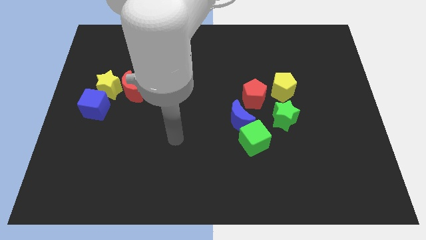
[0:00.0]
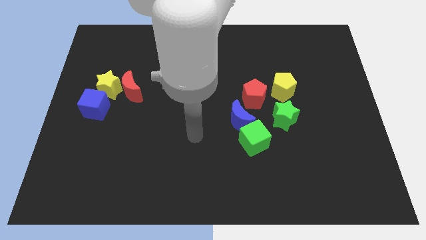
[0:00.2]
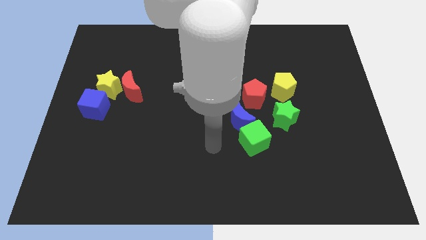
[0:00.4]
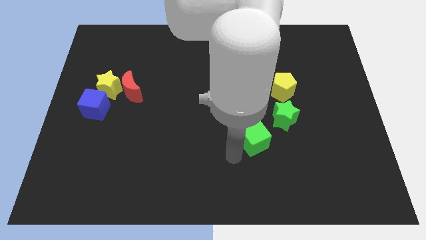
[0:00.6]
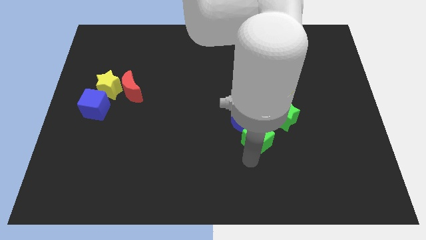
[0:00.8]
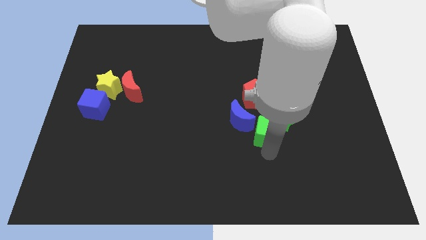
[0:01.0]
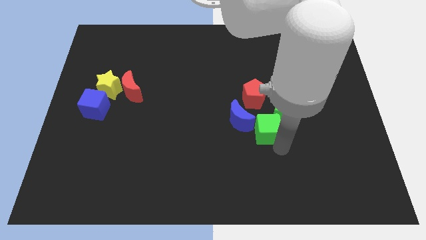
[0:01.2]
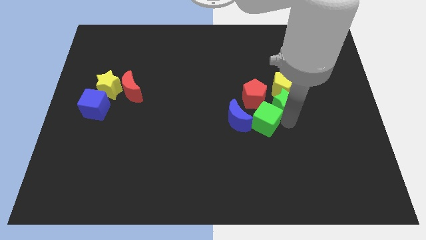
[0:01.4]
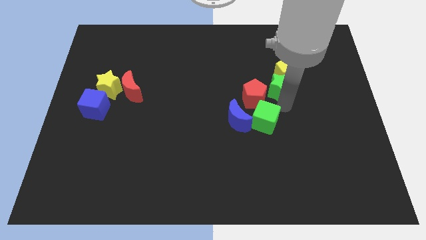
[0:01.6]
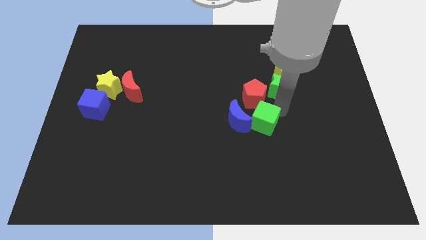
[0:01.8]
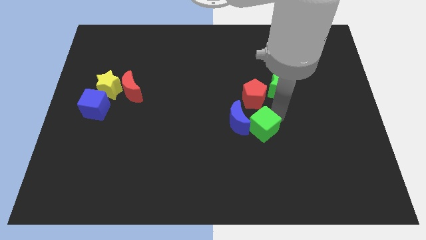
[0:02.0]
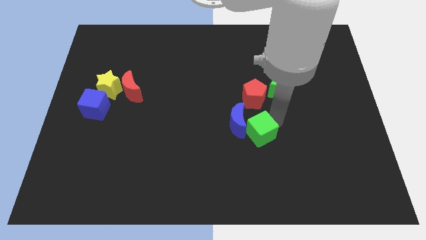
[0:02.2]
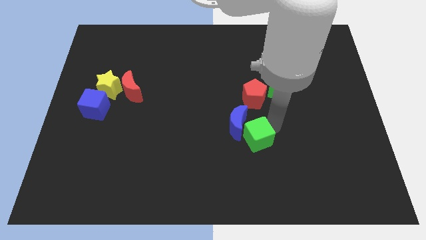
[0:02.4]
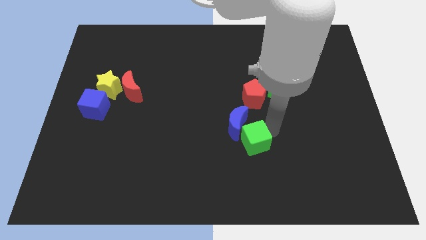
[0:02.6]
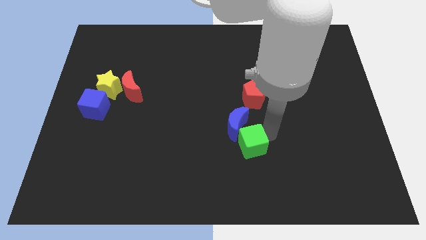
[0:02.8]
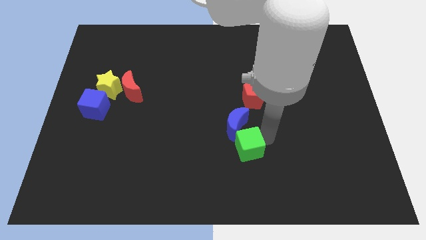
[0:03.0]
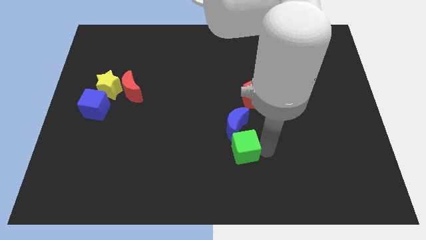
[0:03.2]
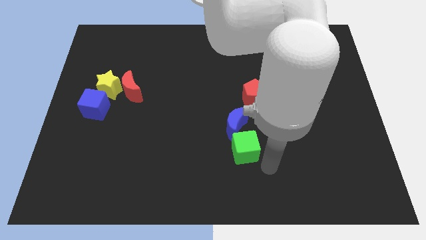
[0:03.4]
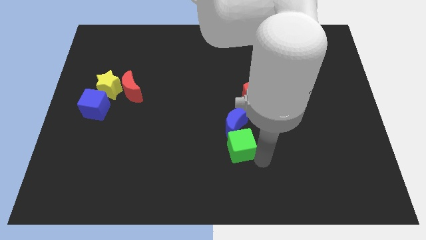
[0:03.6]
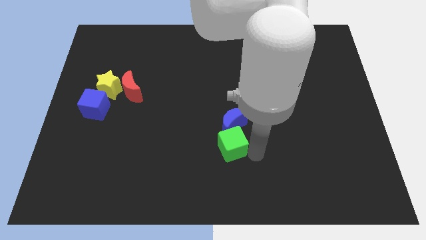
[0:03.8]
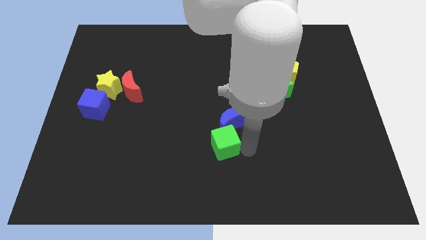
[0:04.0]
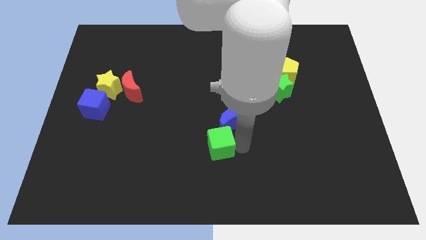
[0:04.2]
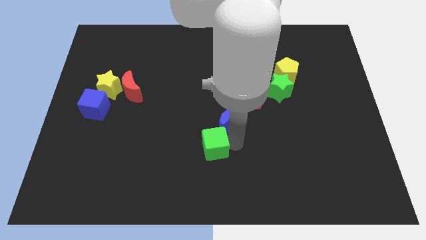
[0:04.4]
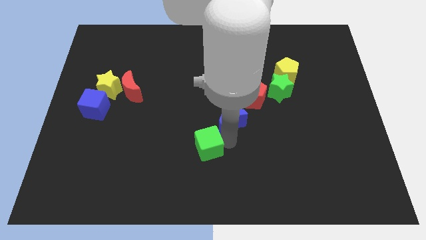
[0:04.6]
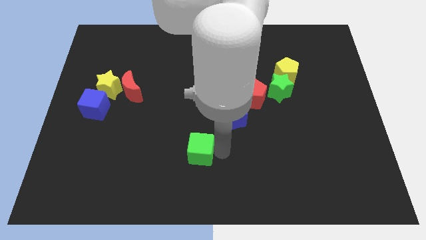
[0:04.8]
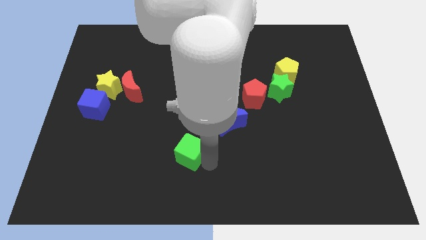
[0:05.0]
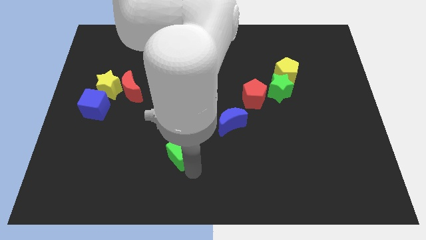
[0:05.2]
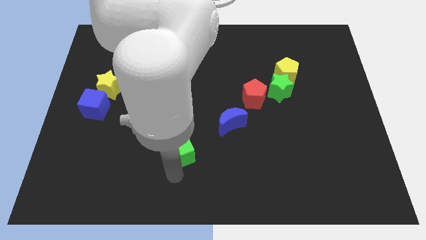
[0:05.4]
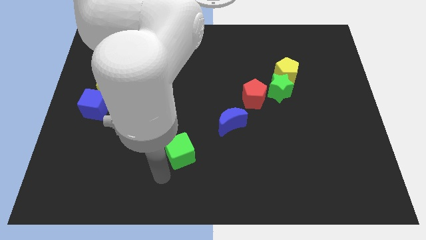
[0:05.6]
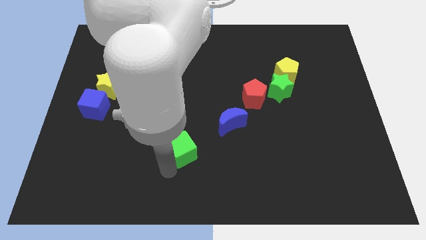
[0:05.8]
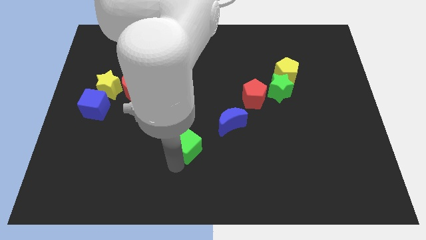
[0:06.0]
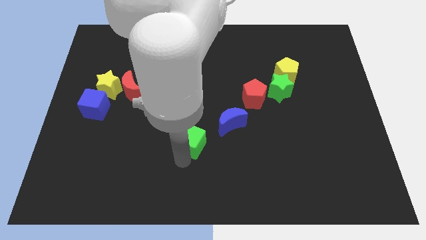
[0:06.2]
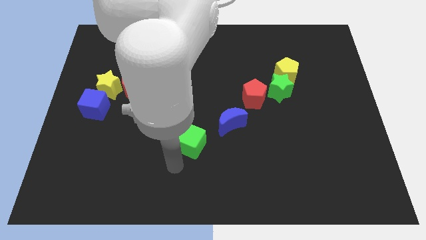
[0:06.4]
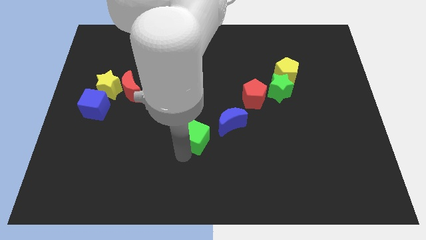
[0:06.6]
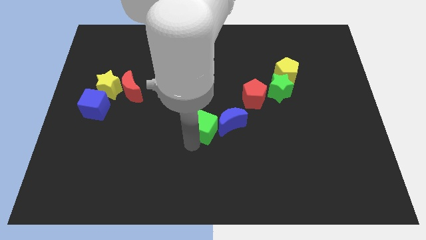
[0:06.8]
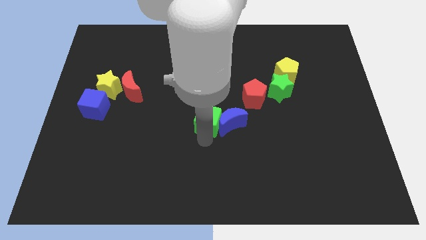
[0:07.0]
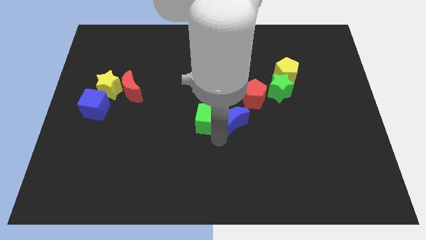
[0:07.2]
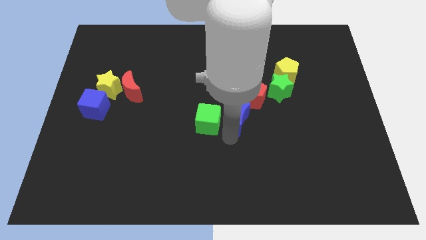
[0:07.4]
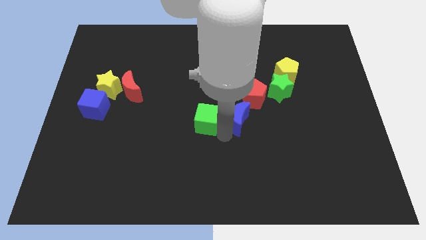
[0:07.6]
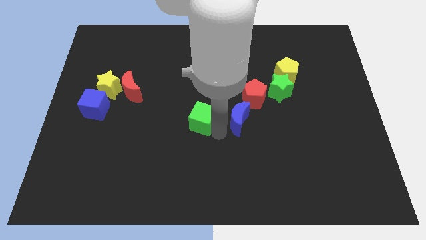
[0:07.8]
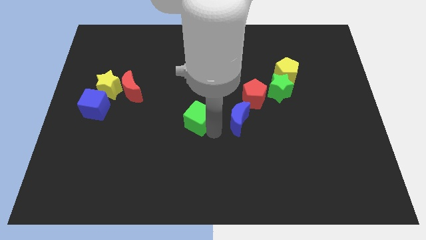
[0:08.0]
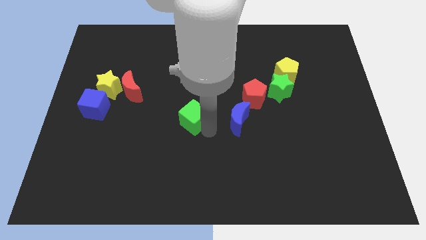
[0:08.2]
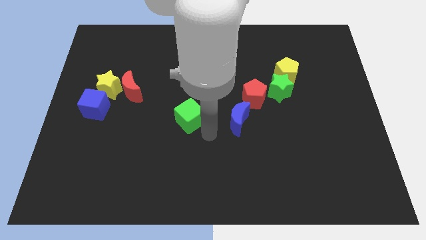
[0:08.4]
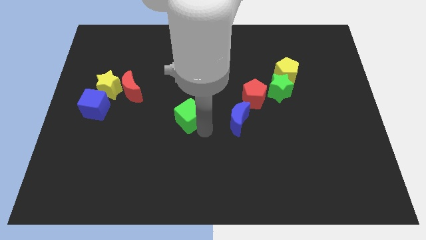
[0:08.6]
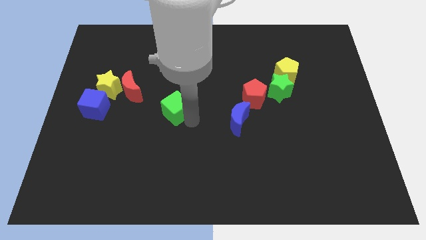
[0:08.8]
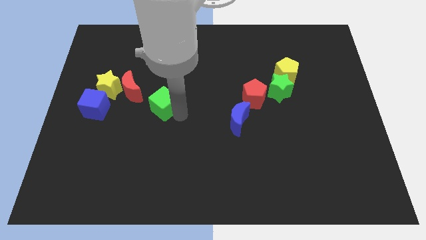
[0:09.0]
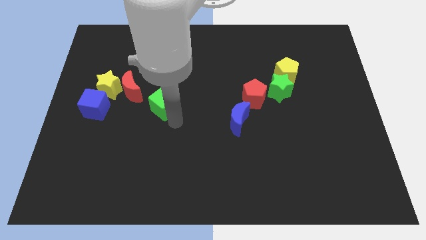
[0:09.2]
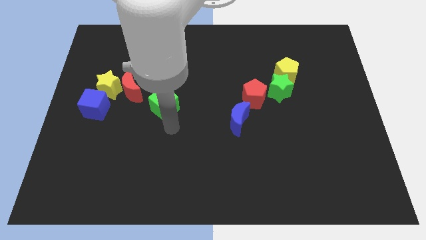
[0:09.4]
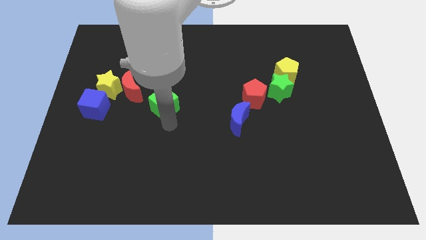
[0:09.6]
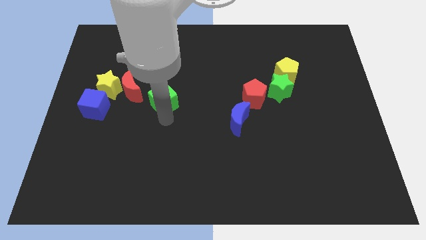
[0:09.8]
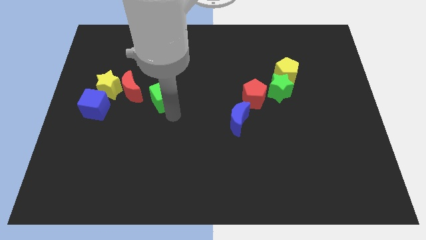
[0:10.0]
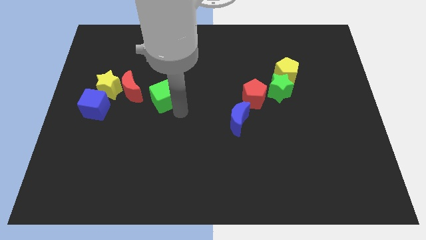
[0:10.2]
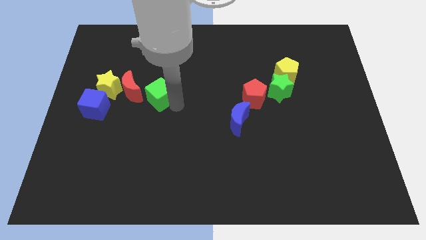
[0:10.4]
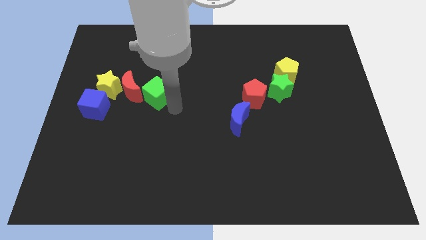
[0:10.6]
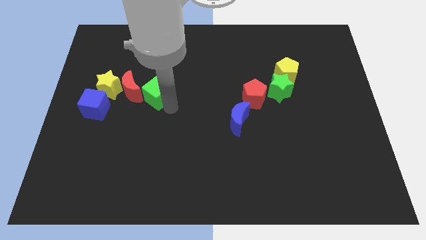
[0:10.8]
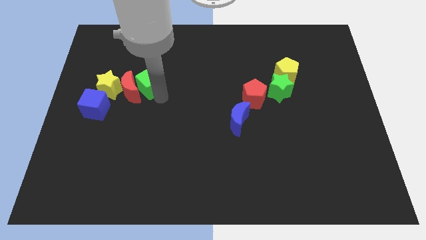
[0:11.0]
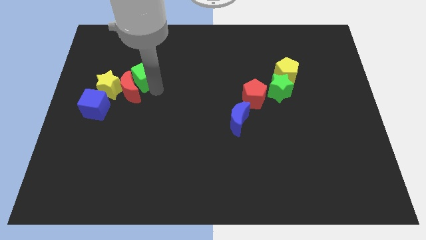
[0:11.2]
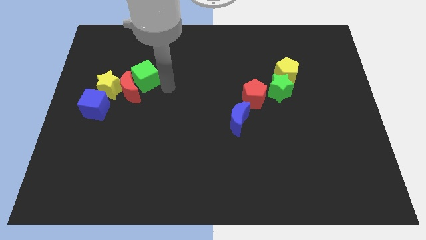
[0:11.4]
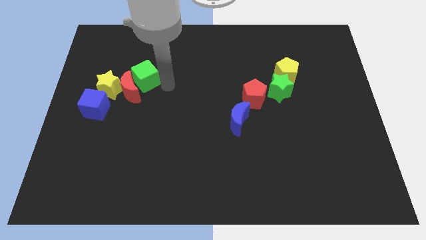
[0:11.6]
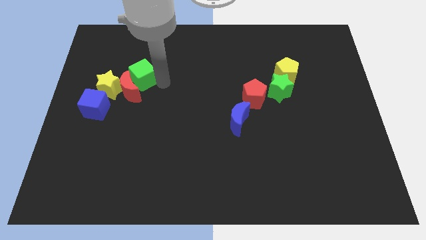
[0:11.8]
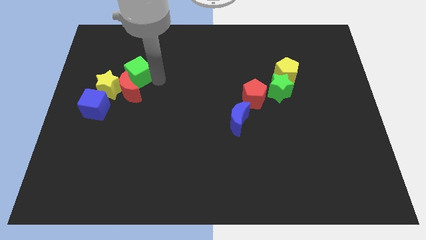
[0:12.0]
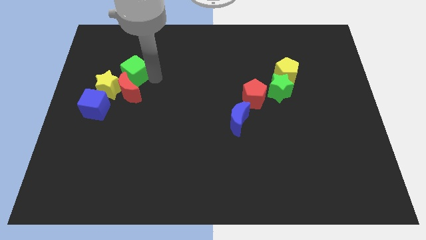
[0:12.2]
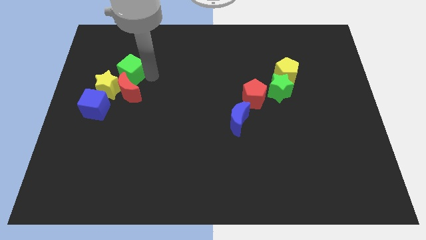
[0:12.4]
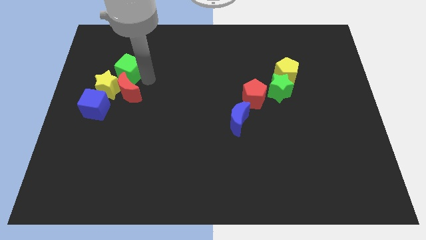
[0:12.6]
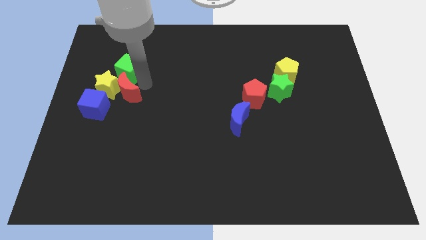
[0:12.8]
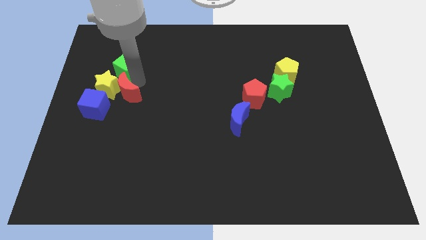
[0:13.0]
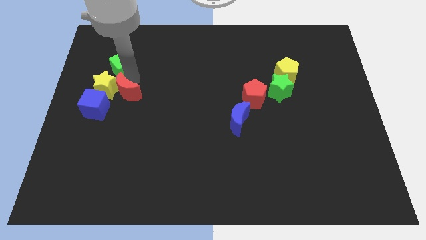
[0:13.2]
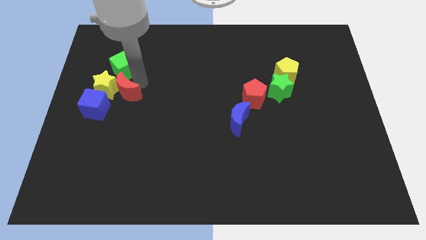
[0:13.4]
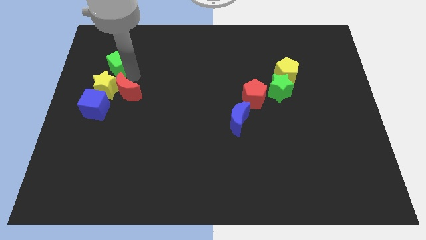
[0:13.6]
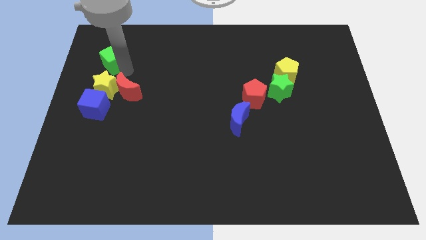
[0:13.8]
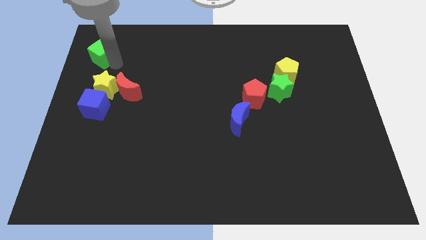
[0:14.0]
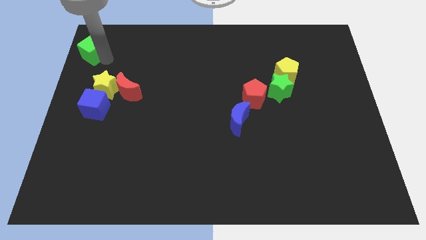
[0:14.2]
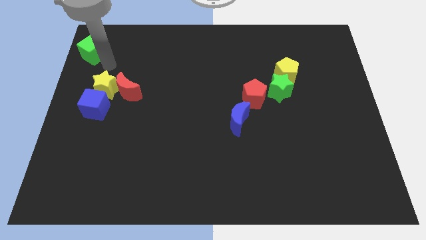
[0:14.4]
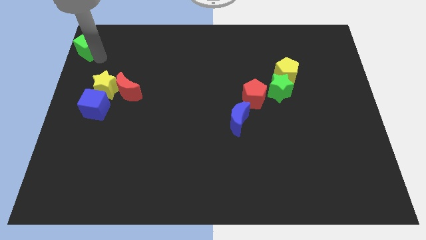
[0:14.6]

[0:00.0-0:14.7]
put the green cube to the top left corner
